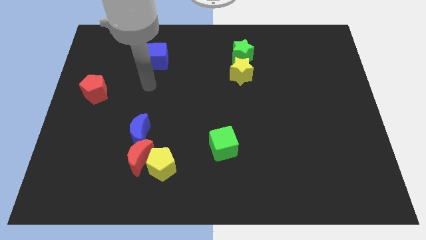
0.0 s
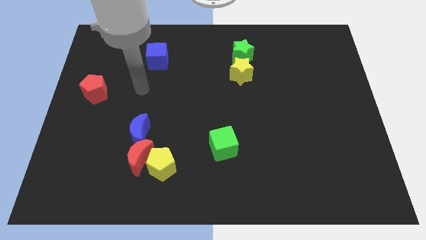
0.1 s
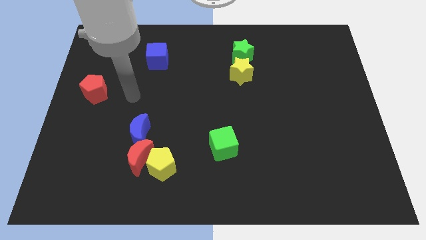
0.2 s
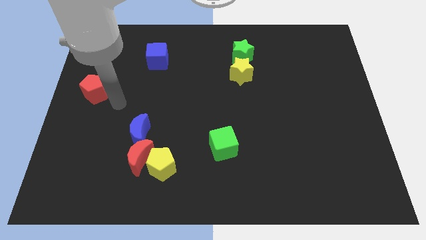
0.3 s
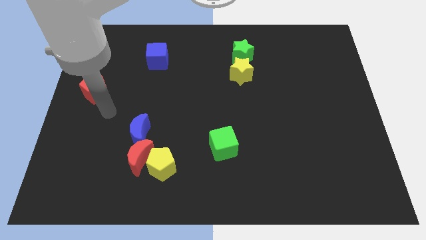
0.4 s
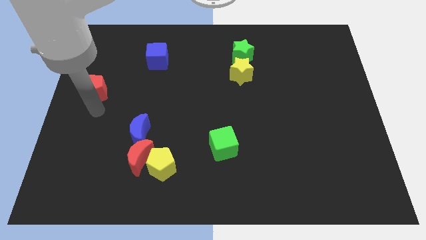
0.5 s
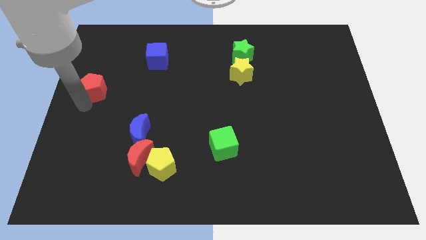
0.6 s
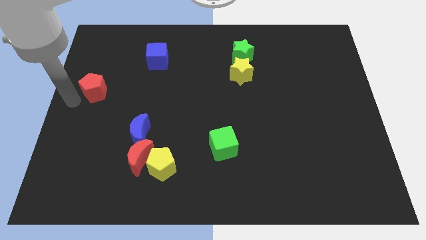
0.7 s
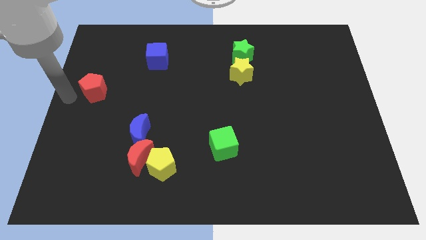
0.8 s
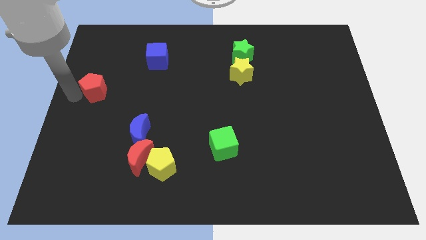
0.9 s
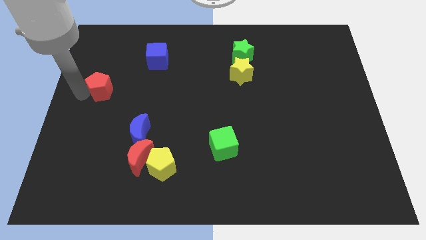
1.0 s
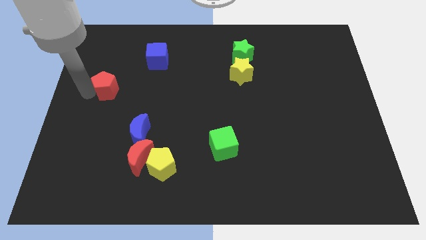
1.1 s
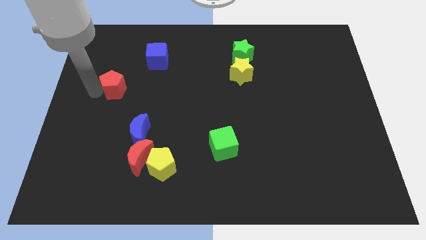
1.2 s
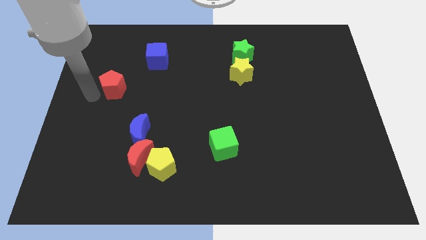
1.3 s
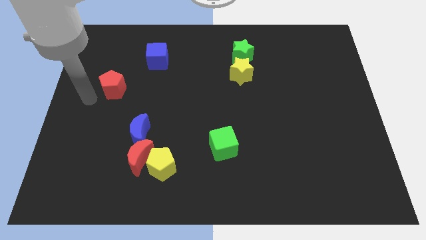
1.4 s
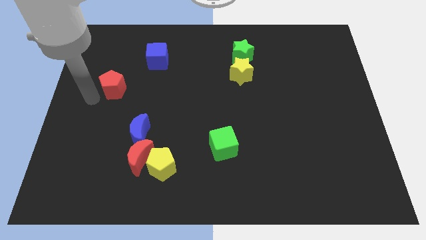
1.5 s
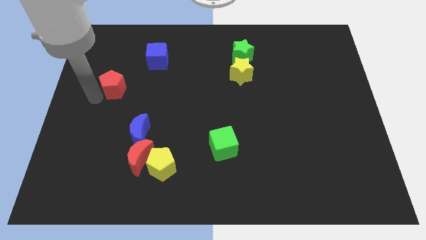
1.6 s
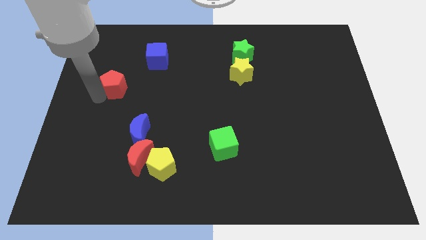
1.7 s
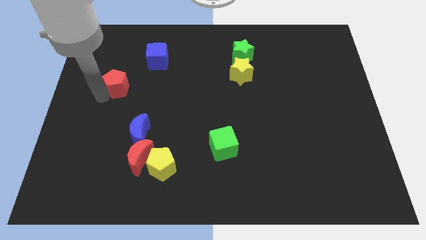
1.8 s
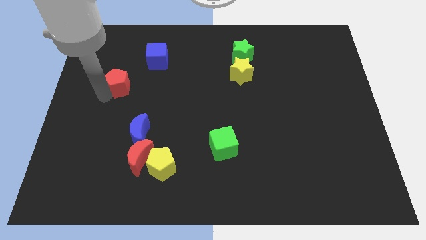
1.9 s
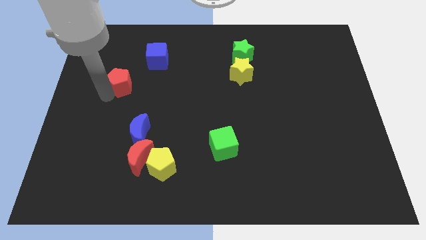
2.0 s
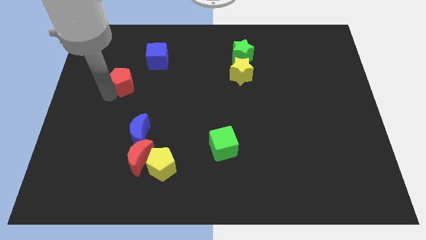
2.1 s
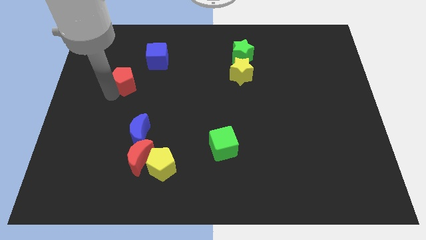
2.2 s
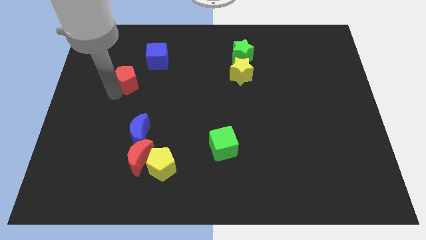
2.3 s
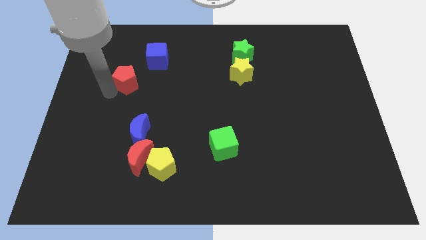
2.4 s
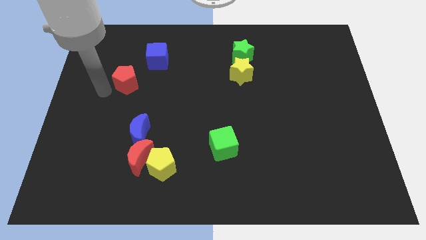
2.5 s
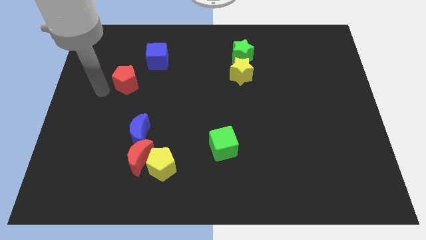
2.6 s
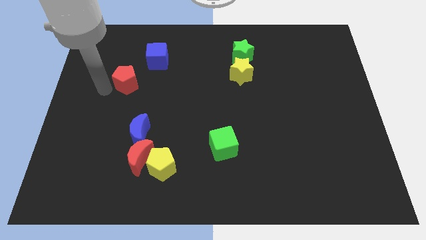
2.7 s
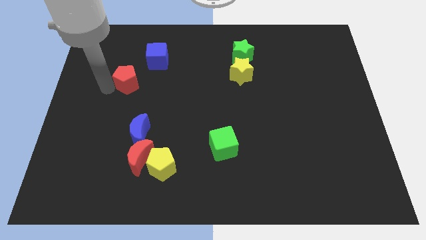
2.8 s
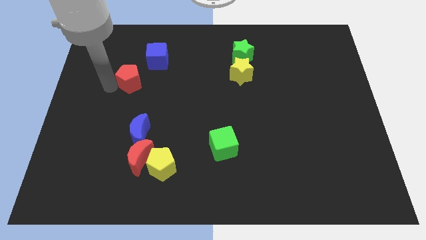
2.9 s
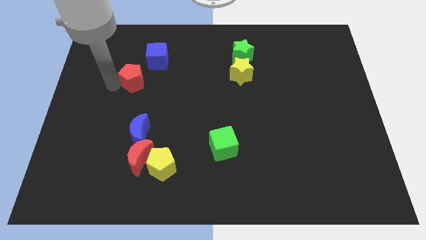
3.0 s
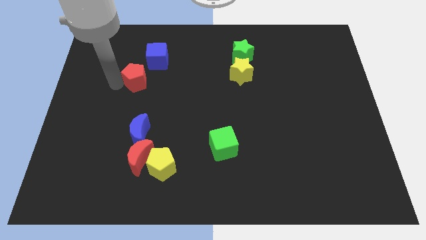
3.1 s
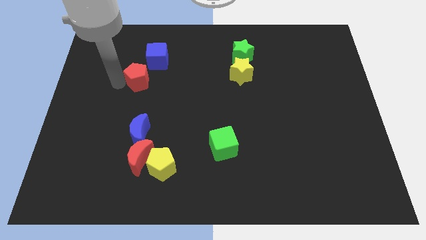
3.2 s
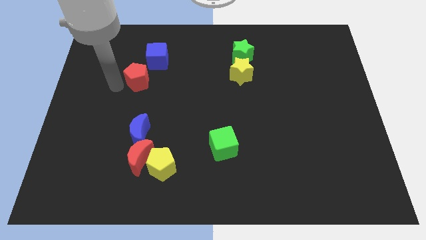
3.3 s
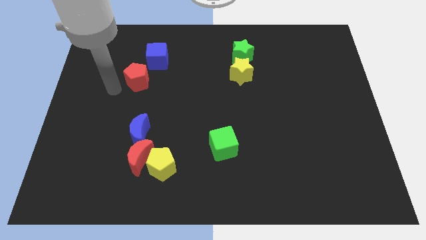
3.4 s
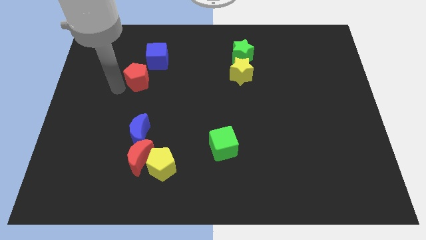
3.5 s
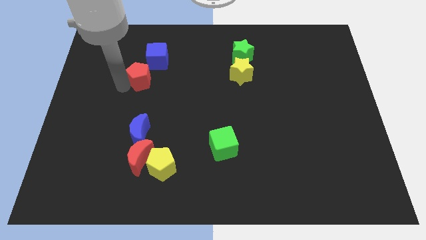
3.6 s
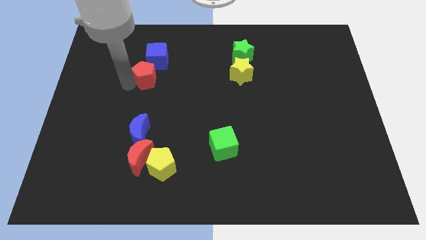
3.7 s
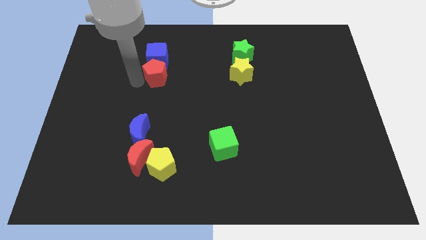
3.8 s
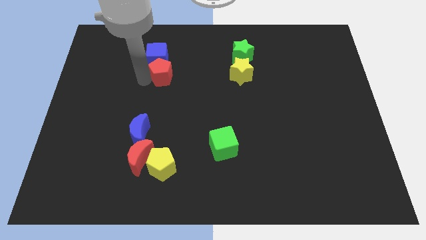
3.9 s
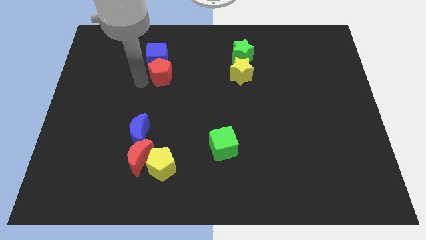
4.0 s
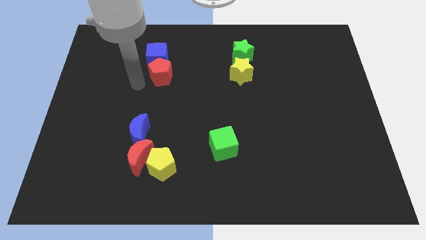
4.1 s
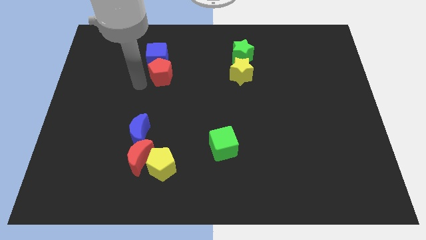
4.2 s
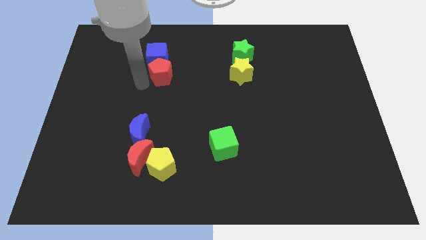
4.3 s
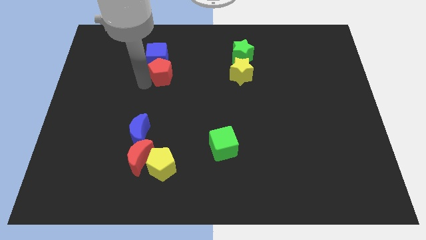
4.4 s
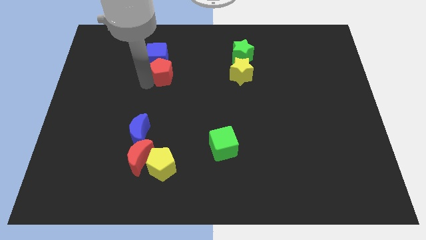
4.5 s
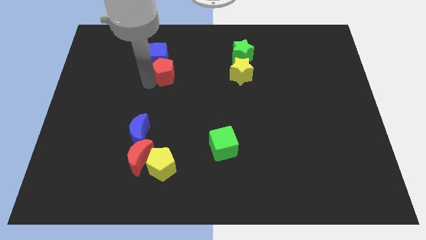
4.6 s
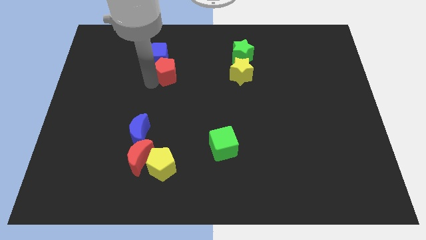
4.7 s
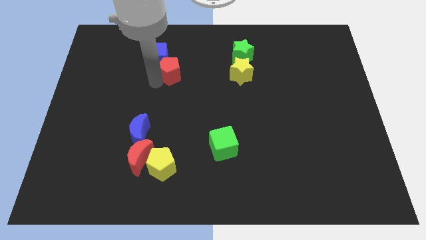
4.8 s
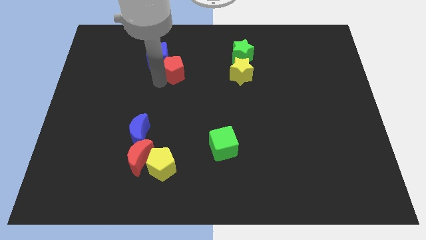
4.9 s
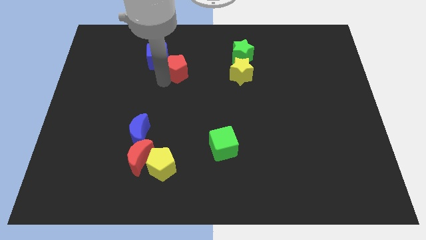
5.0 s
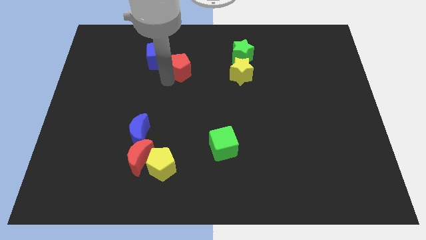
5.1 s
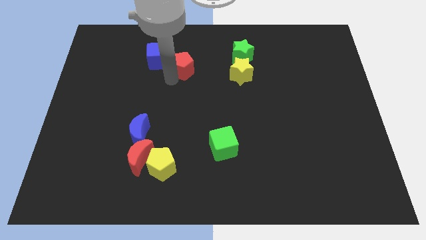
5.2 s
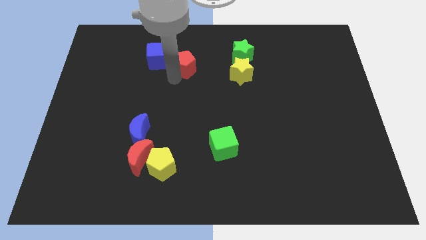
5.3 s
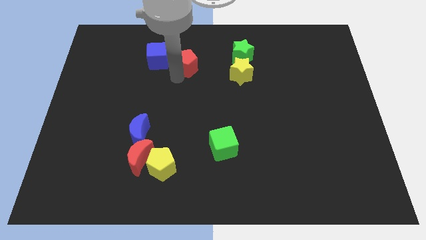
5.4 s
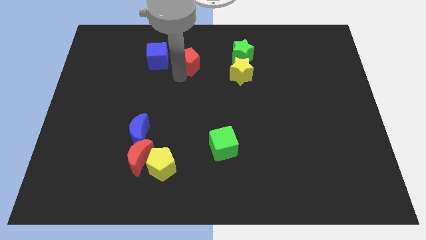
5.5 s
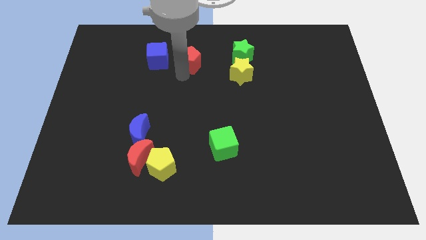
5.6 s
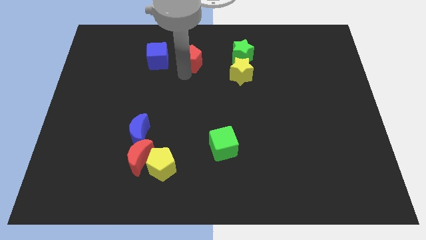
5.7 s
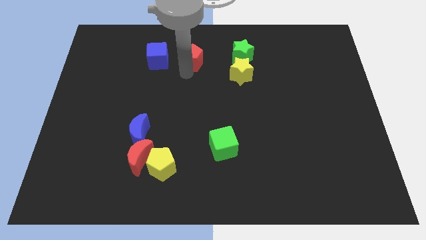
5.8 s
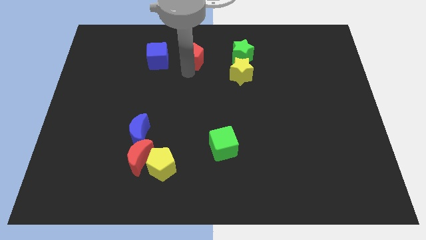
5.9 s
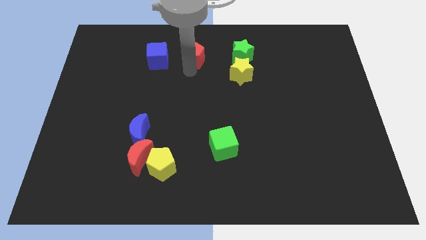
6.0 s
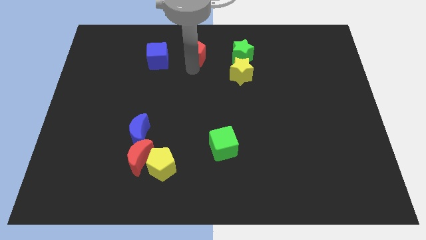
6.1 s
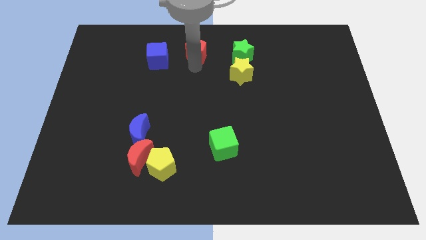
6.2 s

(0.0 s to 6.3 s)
push the red pentagon to the top
